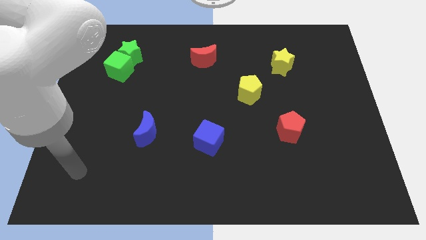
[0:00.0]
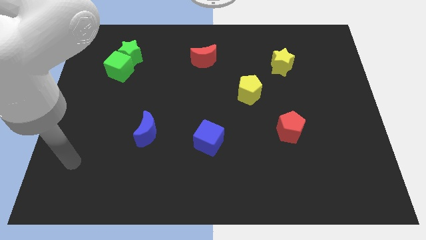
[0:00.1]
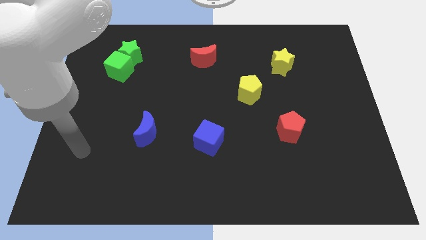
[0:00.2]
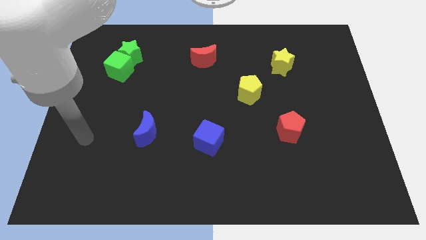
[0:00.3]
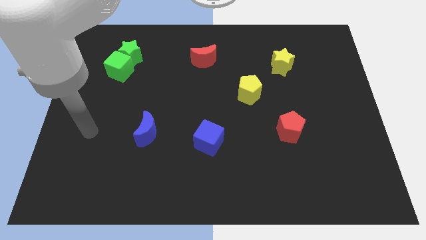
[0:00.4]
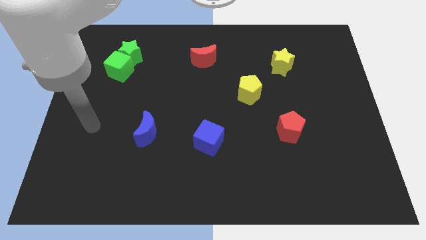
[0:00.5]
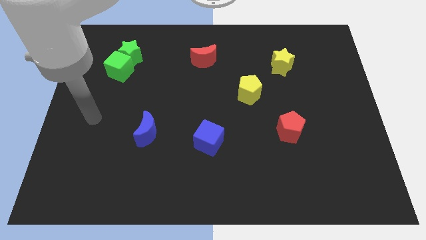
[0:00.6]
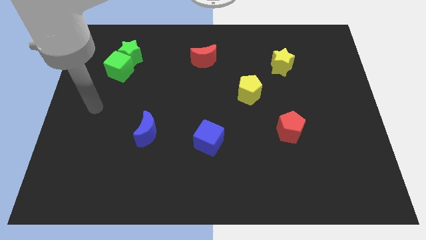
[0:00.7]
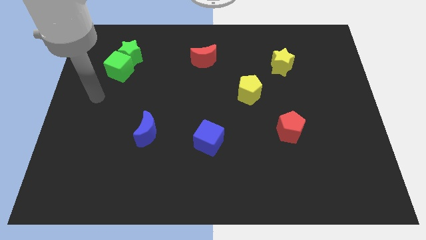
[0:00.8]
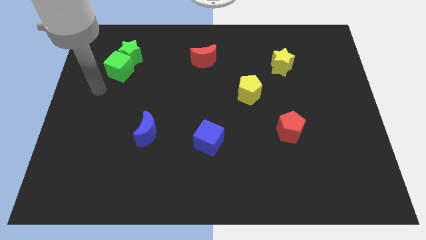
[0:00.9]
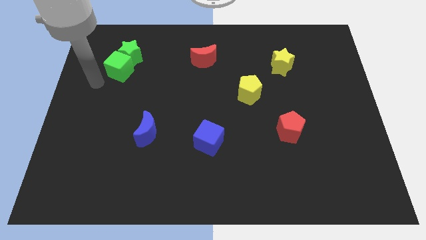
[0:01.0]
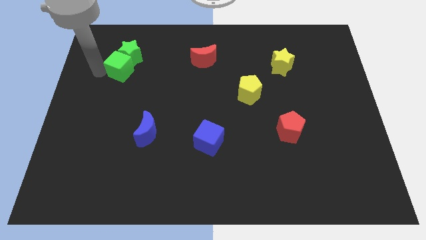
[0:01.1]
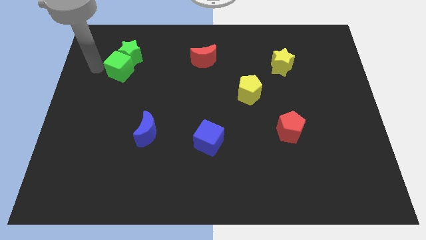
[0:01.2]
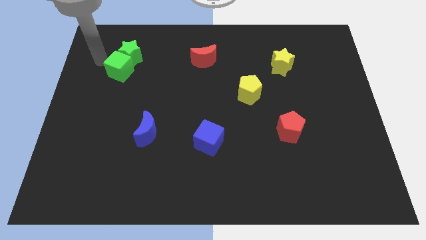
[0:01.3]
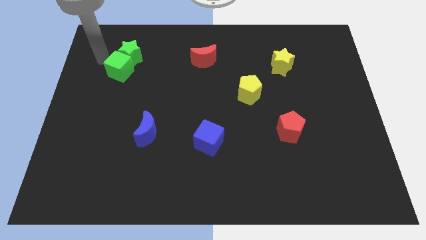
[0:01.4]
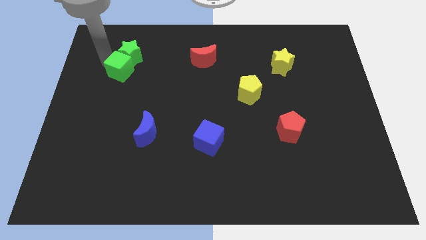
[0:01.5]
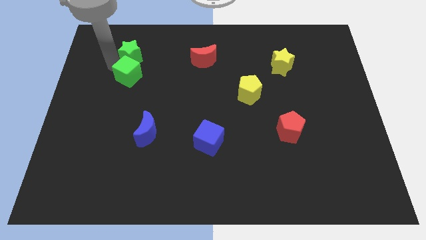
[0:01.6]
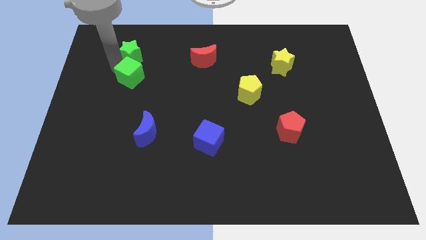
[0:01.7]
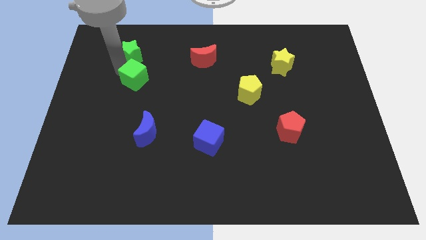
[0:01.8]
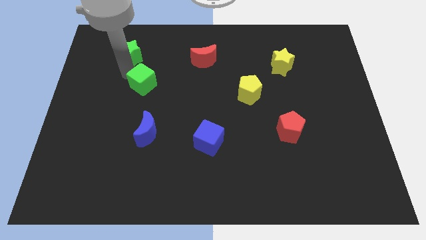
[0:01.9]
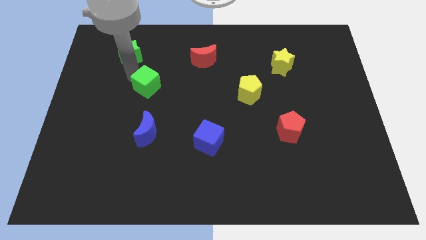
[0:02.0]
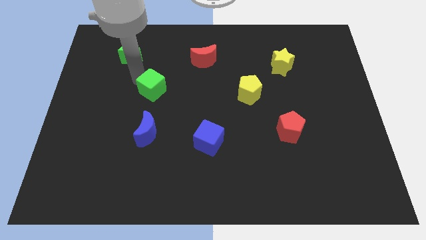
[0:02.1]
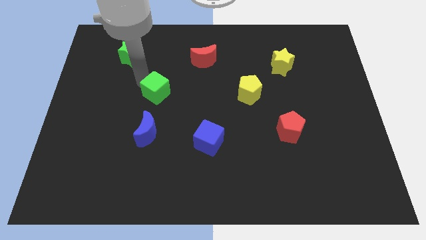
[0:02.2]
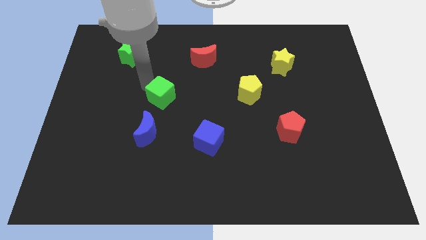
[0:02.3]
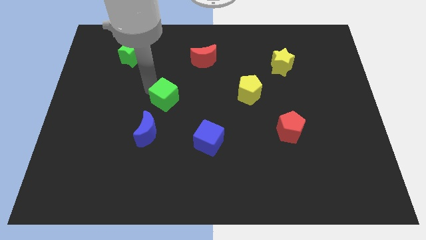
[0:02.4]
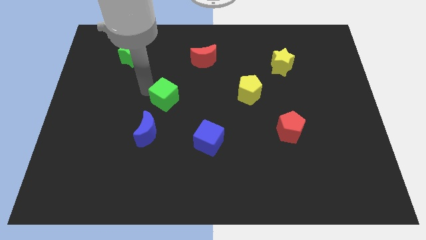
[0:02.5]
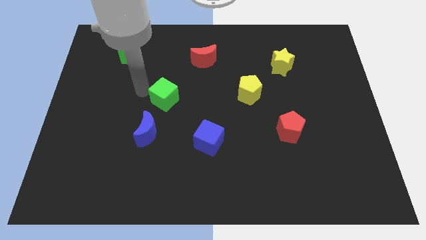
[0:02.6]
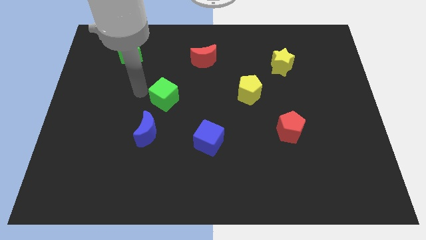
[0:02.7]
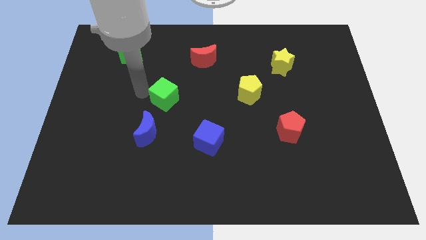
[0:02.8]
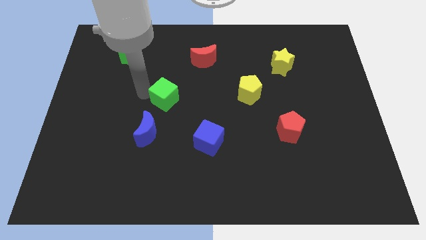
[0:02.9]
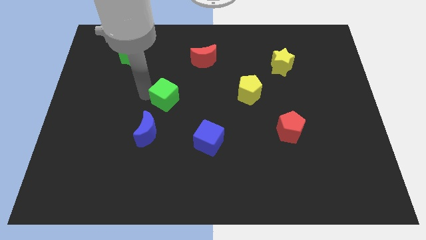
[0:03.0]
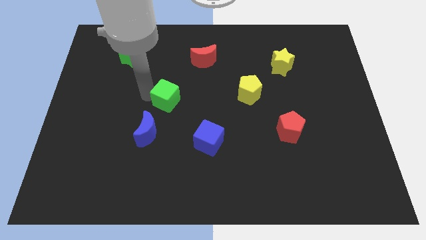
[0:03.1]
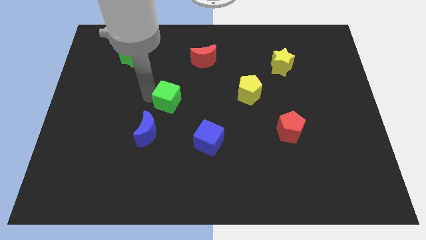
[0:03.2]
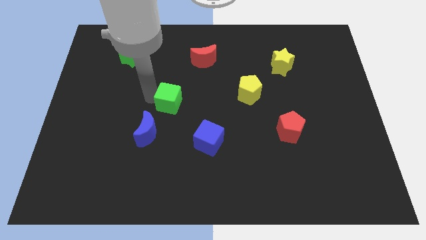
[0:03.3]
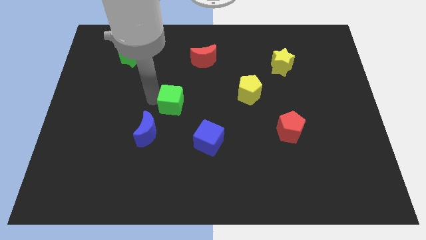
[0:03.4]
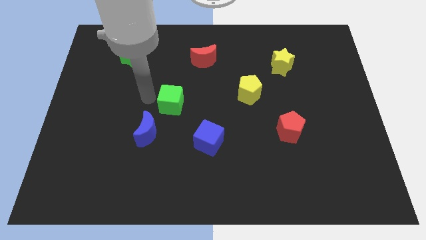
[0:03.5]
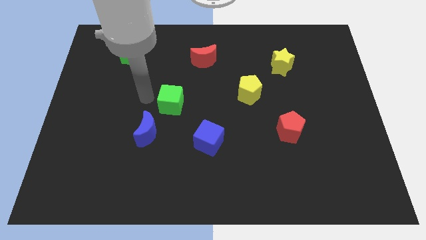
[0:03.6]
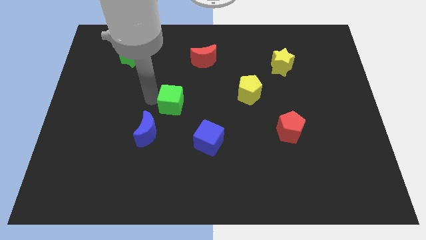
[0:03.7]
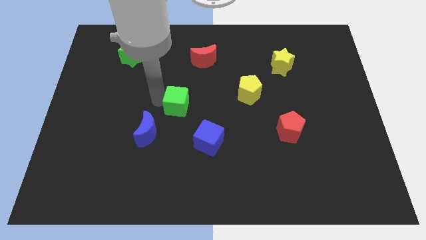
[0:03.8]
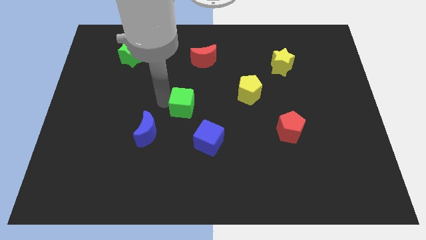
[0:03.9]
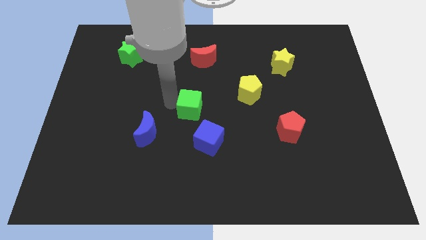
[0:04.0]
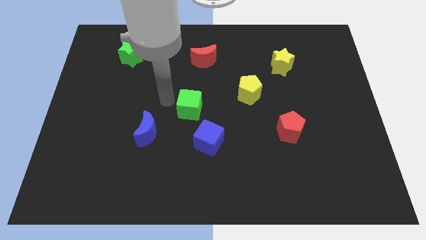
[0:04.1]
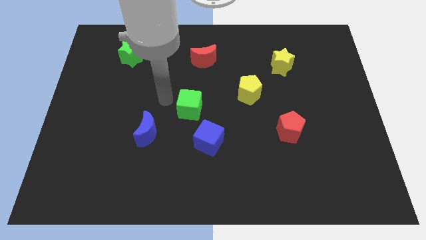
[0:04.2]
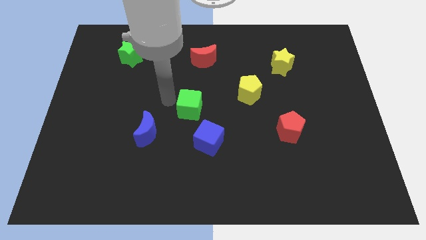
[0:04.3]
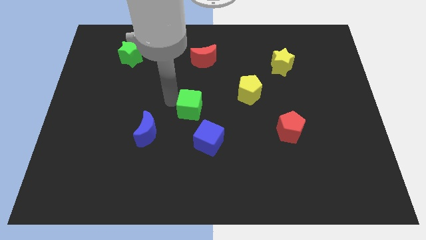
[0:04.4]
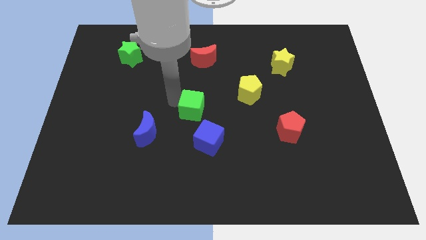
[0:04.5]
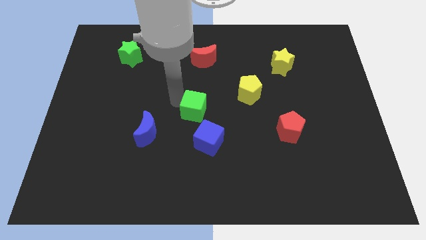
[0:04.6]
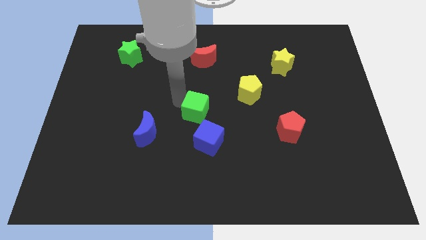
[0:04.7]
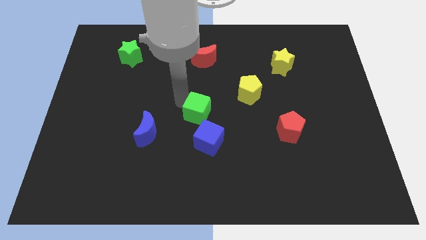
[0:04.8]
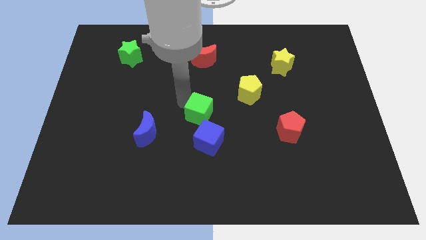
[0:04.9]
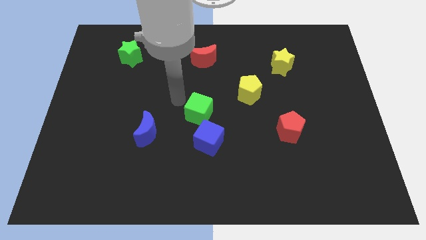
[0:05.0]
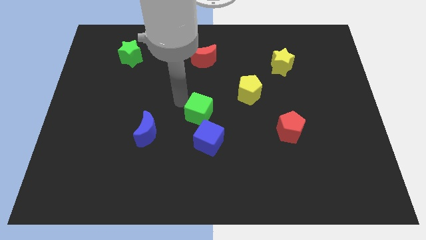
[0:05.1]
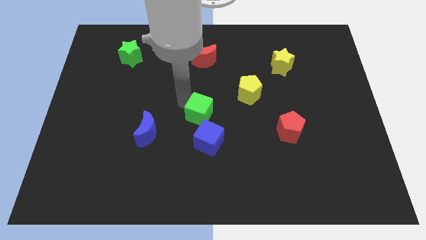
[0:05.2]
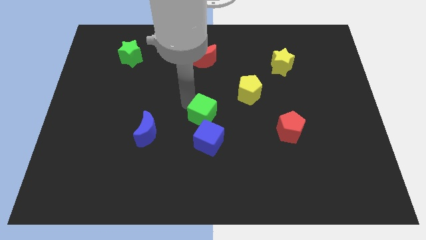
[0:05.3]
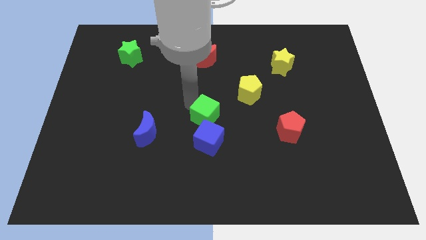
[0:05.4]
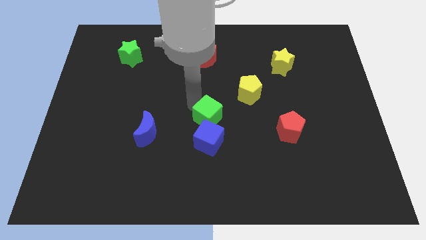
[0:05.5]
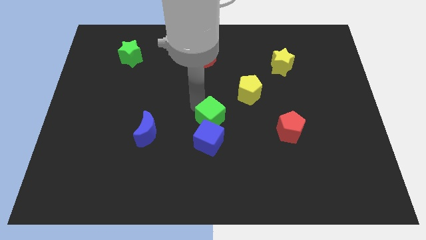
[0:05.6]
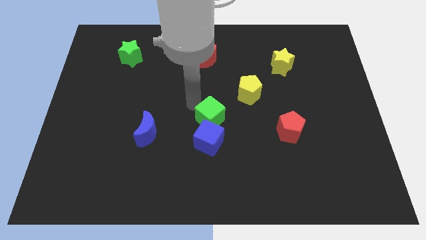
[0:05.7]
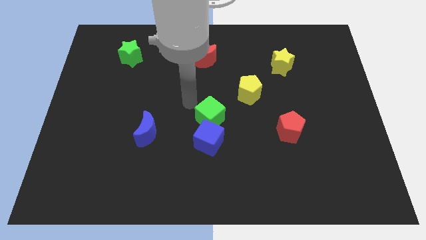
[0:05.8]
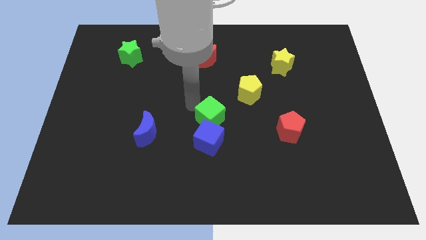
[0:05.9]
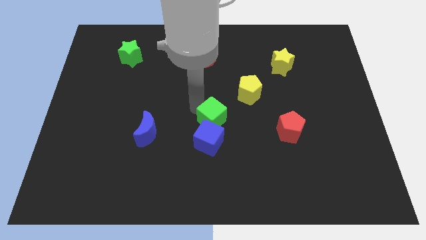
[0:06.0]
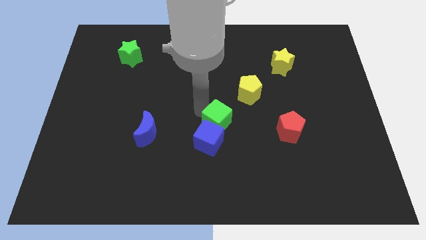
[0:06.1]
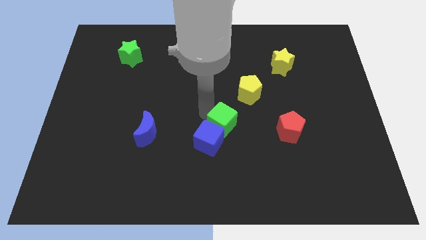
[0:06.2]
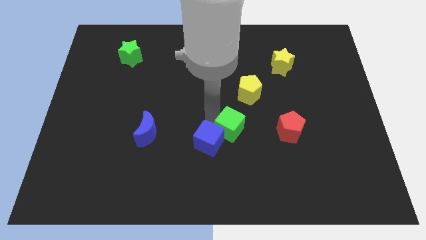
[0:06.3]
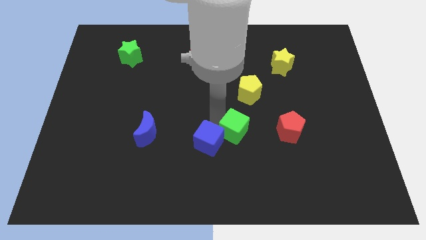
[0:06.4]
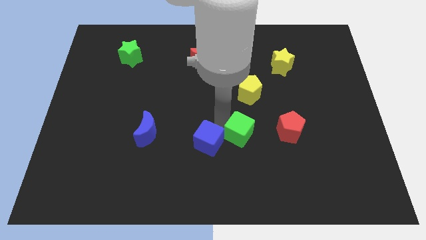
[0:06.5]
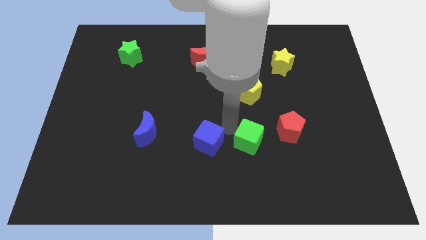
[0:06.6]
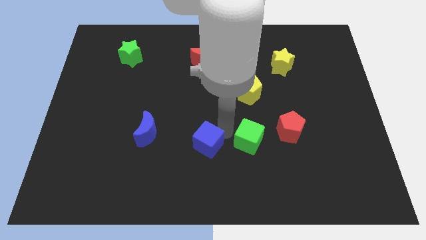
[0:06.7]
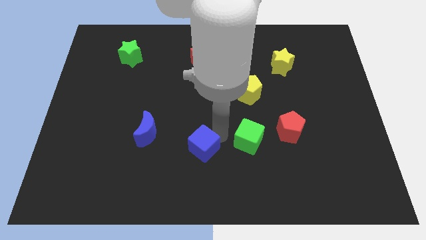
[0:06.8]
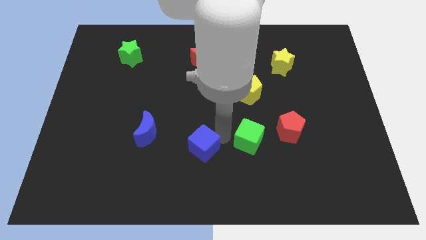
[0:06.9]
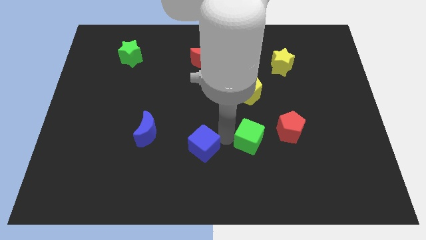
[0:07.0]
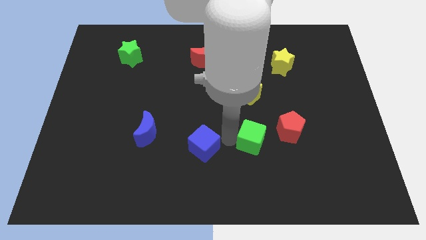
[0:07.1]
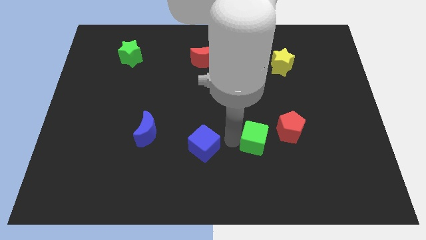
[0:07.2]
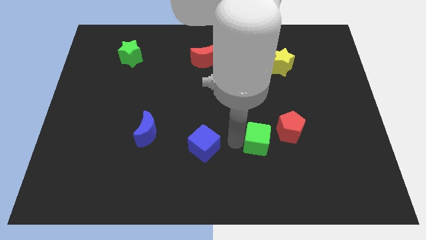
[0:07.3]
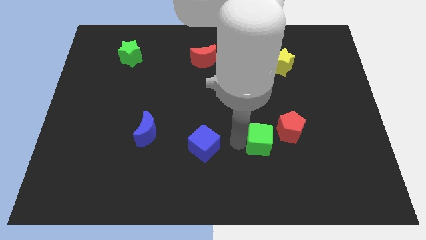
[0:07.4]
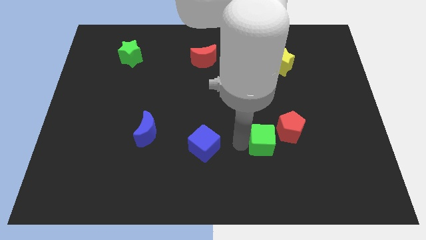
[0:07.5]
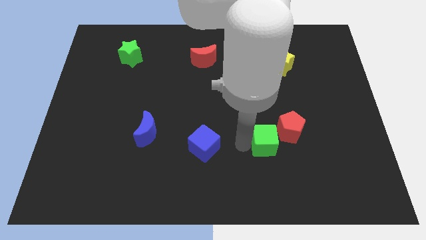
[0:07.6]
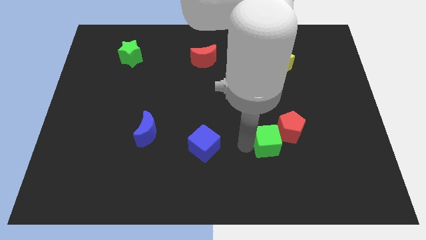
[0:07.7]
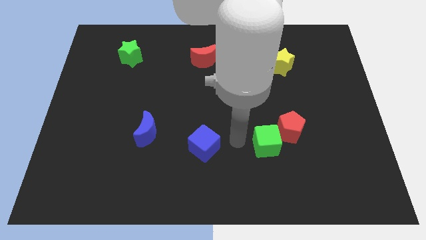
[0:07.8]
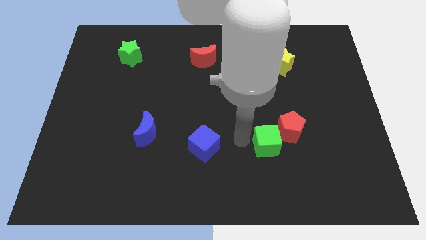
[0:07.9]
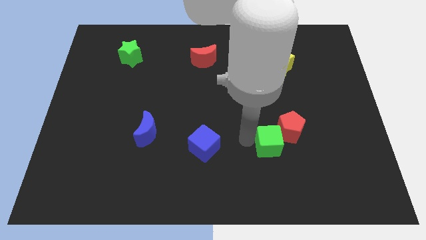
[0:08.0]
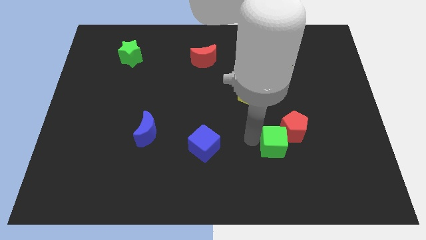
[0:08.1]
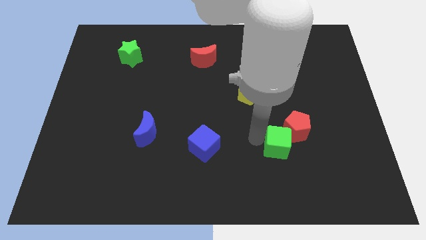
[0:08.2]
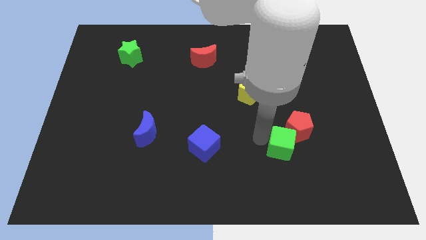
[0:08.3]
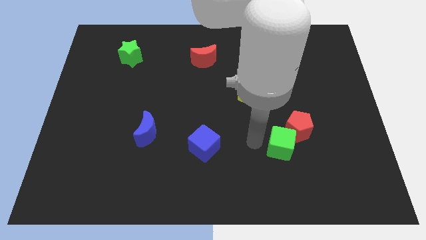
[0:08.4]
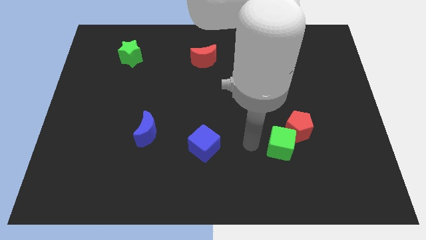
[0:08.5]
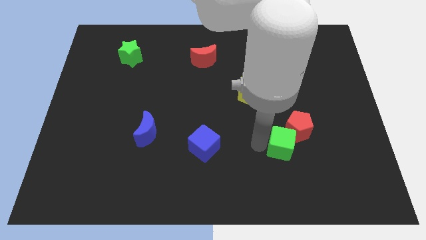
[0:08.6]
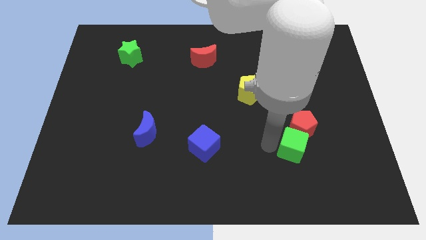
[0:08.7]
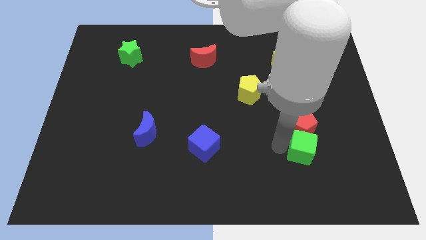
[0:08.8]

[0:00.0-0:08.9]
slide the green cube diagonally down and to the right of the red pentagon
